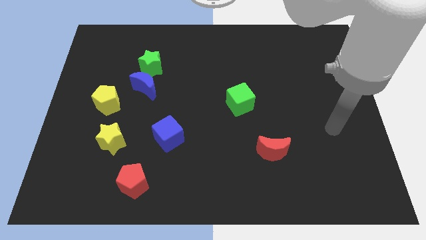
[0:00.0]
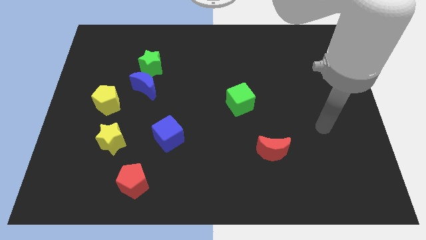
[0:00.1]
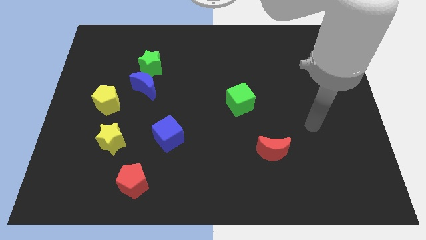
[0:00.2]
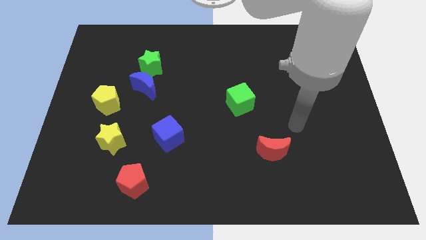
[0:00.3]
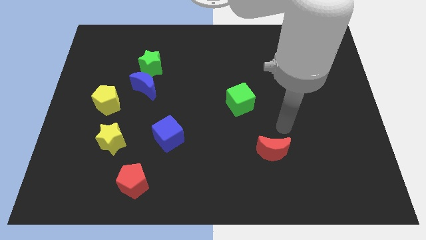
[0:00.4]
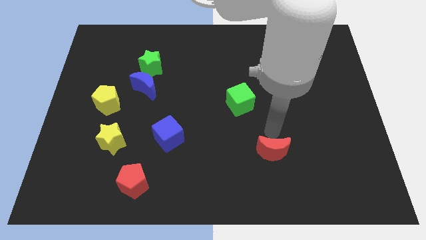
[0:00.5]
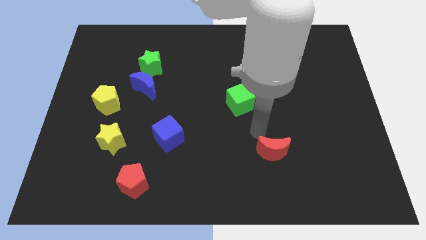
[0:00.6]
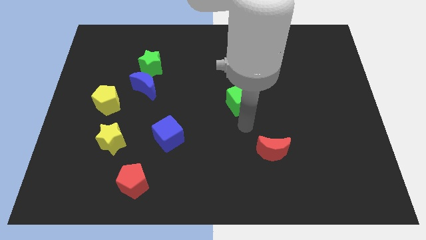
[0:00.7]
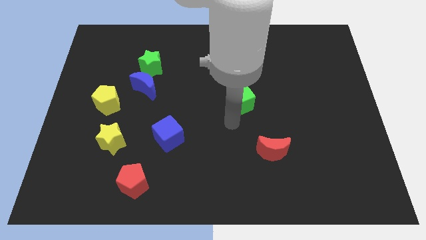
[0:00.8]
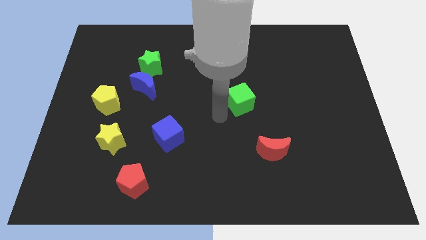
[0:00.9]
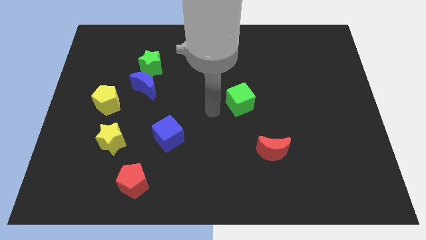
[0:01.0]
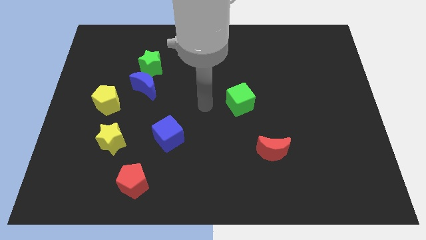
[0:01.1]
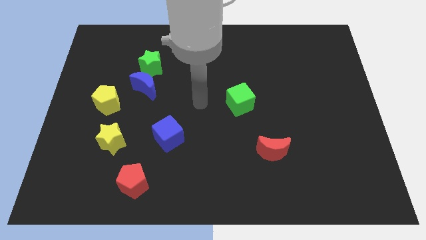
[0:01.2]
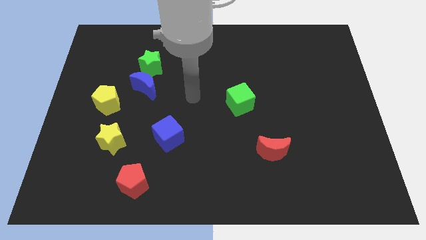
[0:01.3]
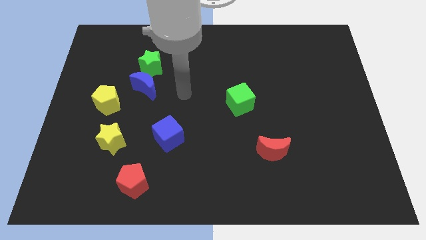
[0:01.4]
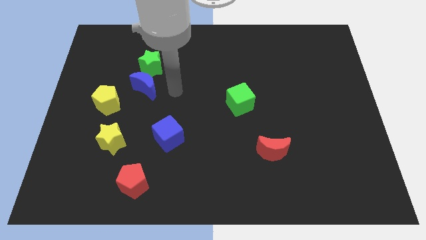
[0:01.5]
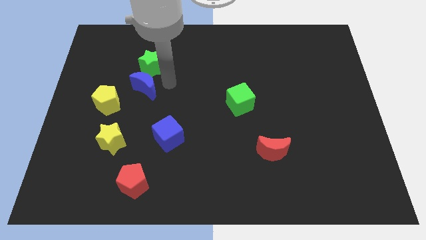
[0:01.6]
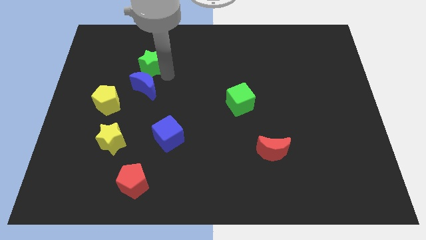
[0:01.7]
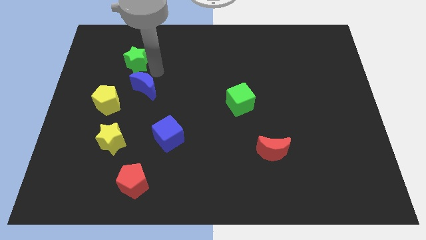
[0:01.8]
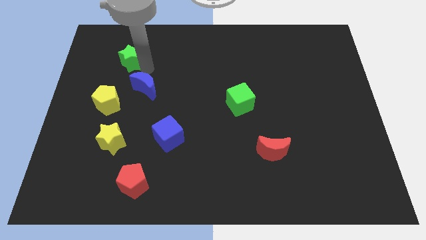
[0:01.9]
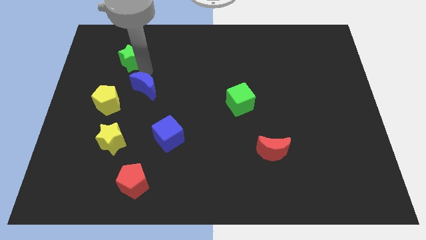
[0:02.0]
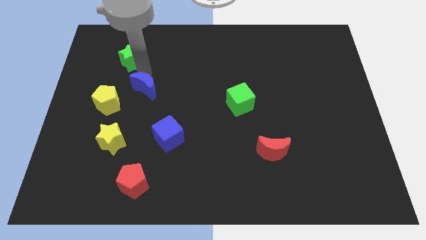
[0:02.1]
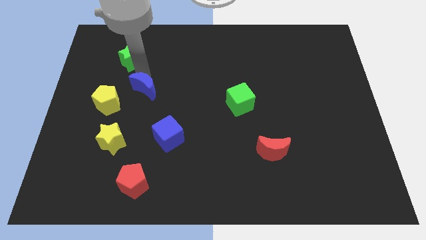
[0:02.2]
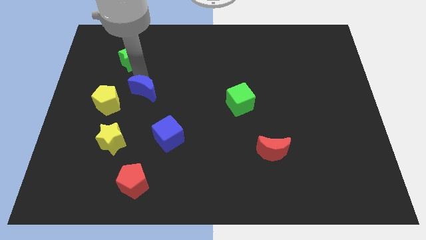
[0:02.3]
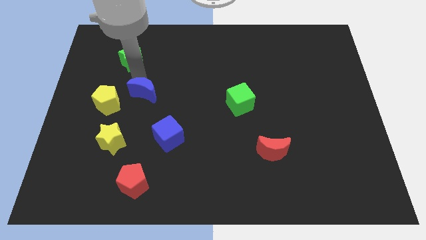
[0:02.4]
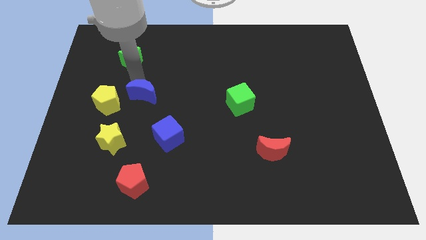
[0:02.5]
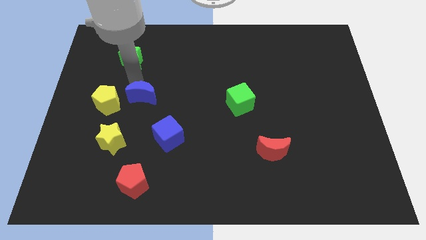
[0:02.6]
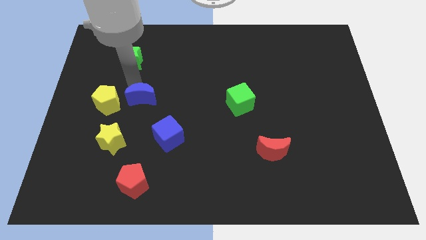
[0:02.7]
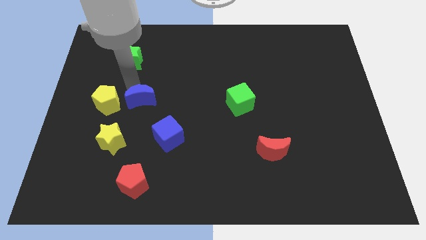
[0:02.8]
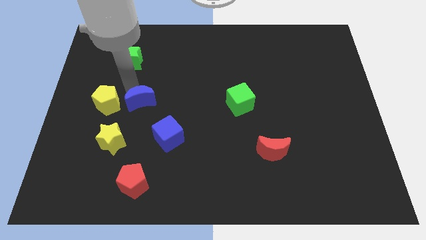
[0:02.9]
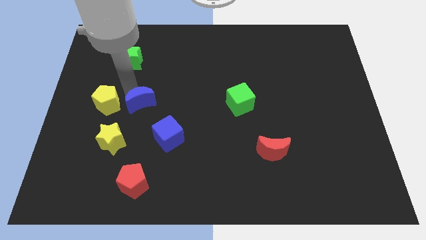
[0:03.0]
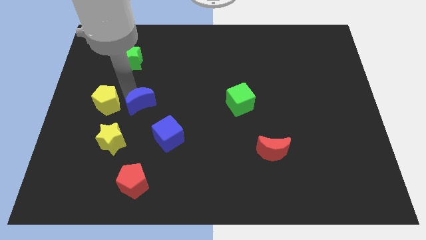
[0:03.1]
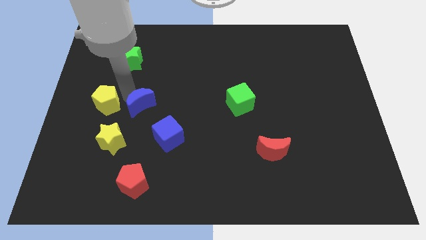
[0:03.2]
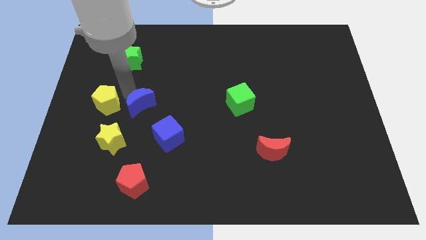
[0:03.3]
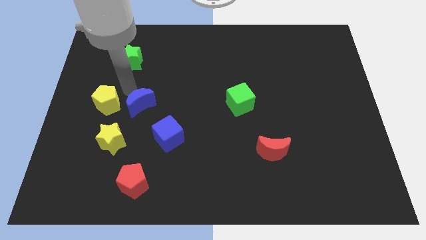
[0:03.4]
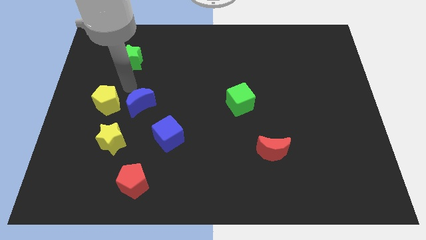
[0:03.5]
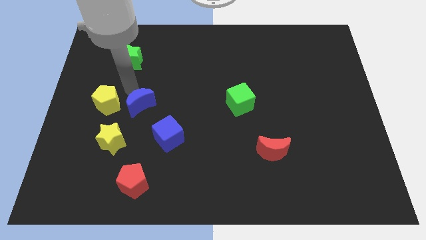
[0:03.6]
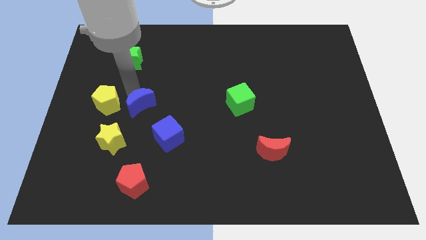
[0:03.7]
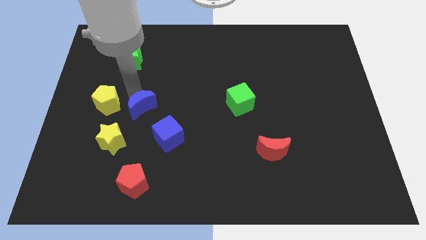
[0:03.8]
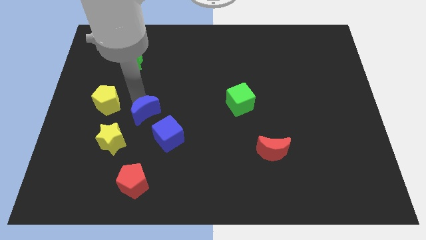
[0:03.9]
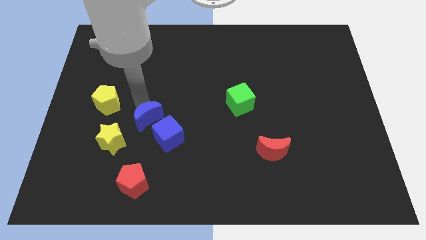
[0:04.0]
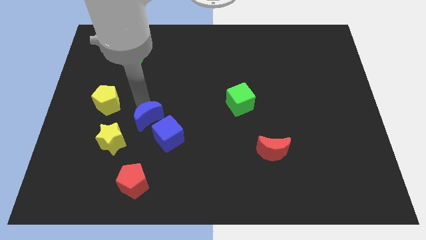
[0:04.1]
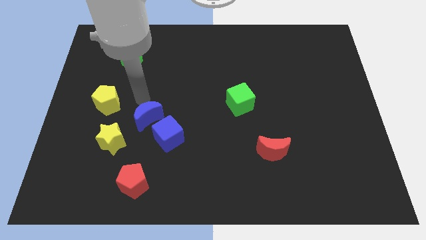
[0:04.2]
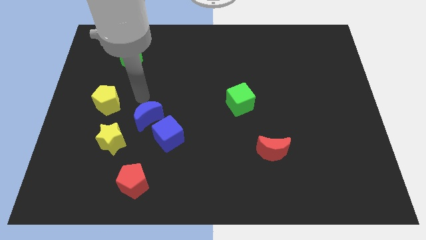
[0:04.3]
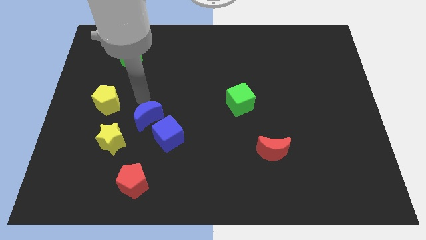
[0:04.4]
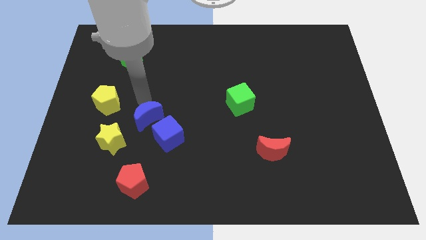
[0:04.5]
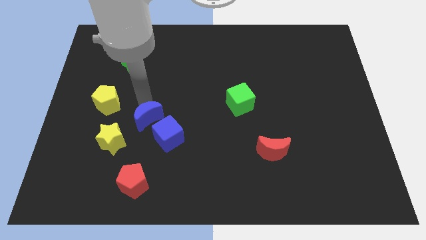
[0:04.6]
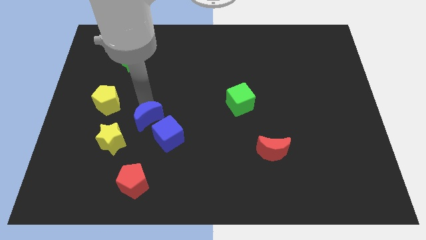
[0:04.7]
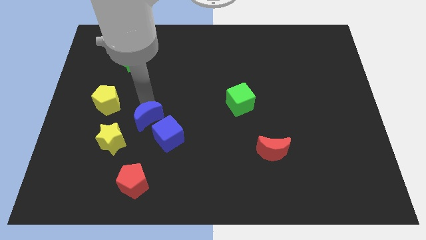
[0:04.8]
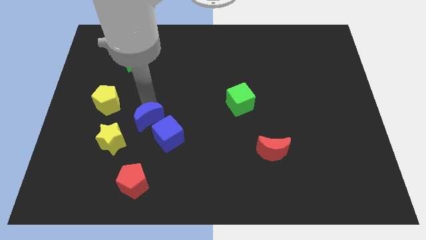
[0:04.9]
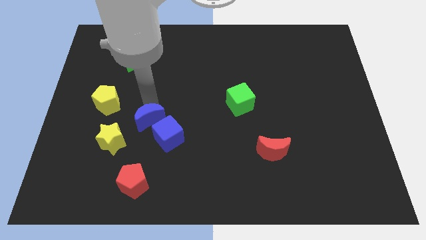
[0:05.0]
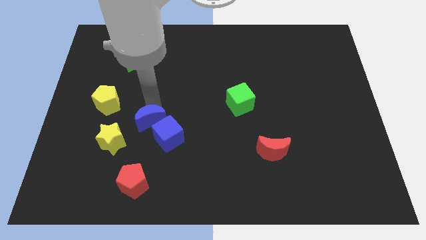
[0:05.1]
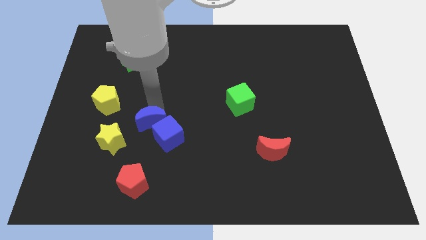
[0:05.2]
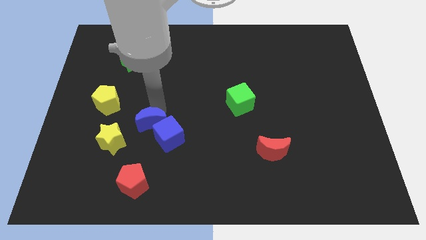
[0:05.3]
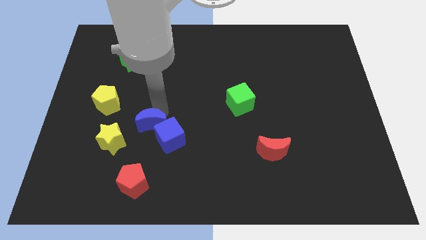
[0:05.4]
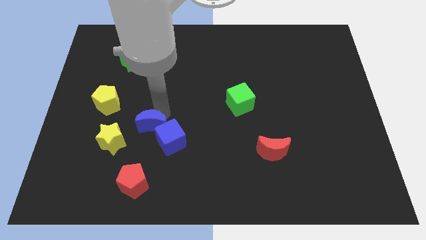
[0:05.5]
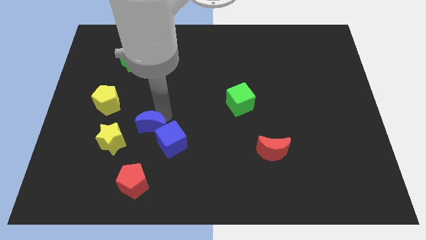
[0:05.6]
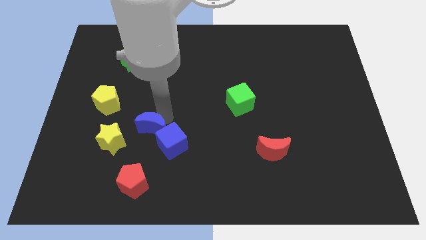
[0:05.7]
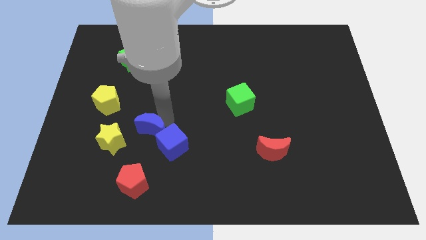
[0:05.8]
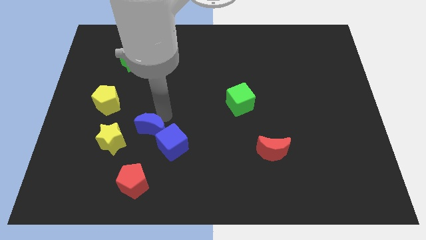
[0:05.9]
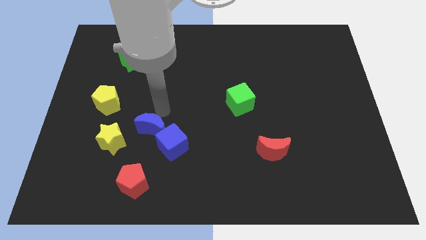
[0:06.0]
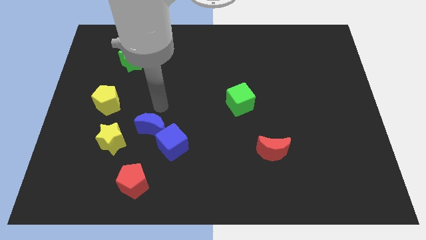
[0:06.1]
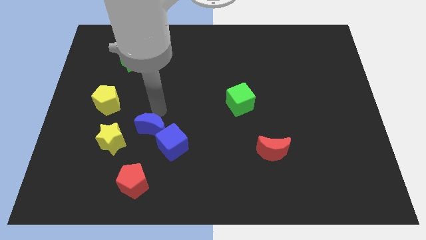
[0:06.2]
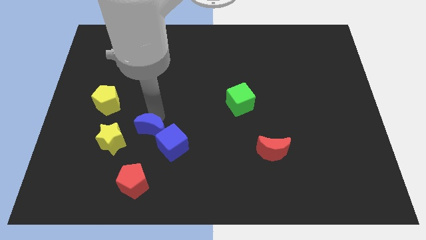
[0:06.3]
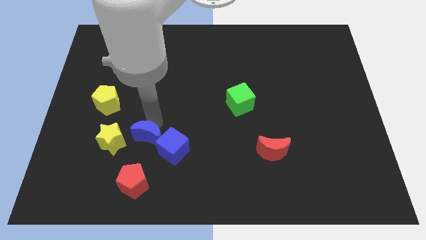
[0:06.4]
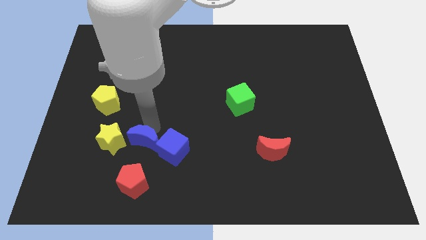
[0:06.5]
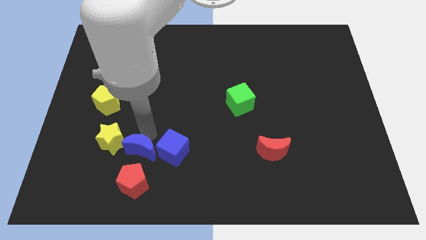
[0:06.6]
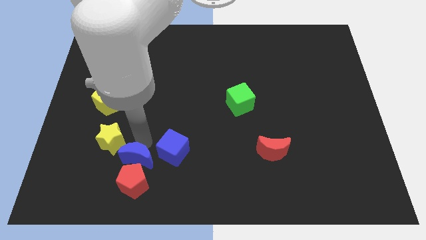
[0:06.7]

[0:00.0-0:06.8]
move the blue moon close to the red pentagon
